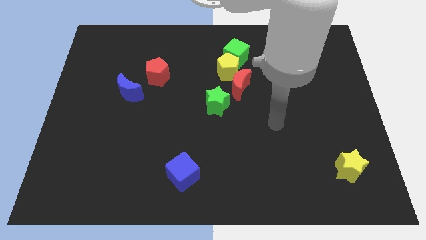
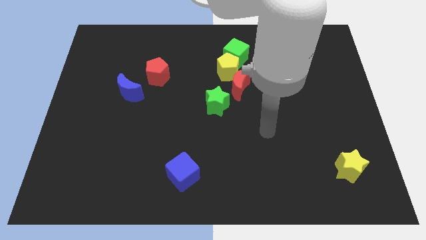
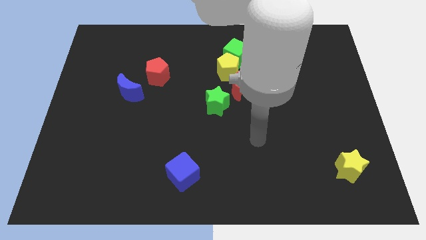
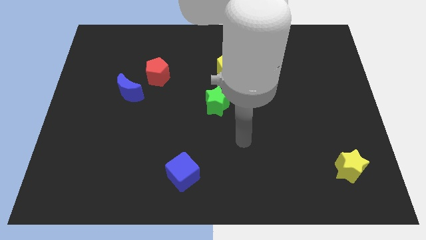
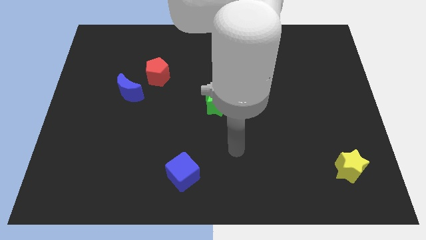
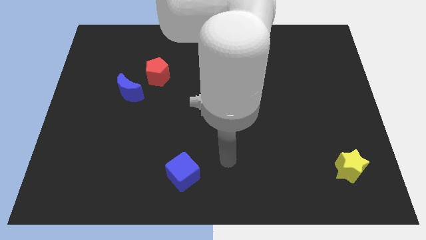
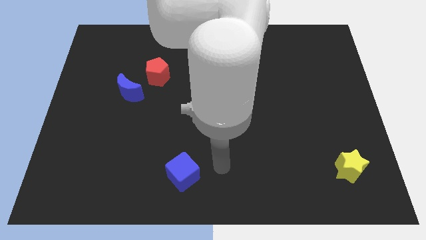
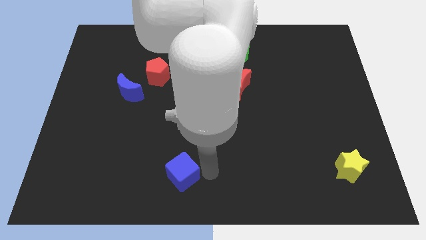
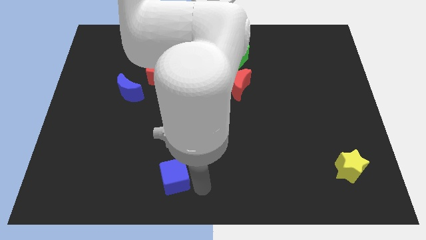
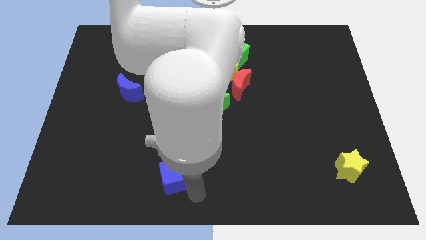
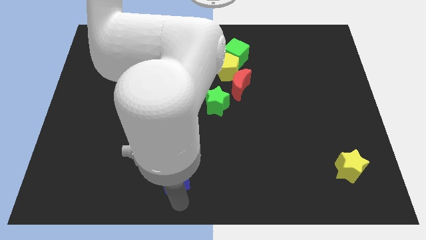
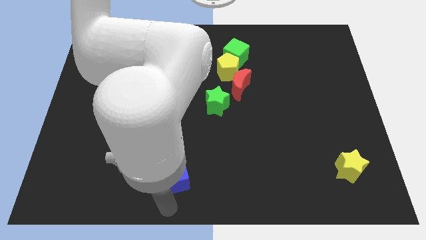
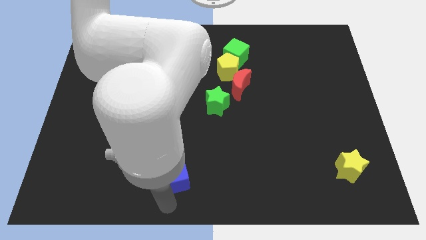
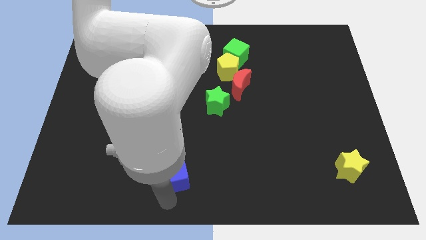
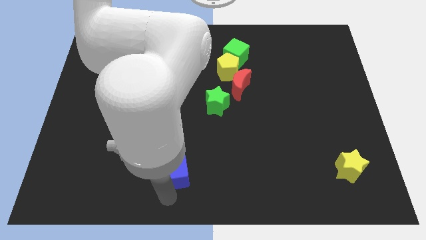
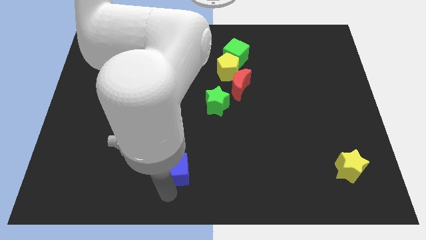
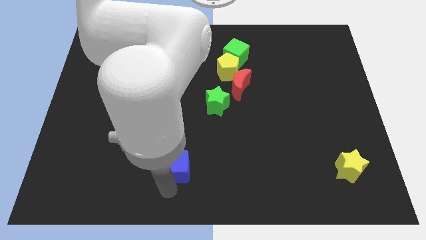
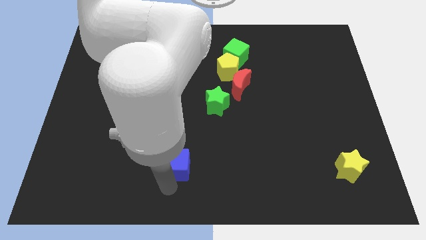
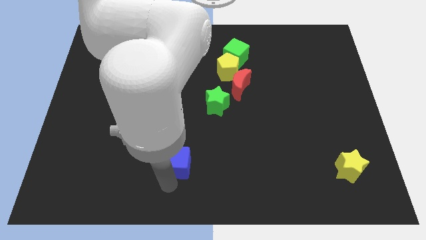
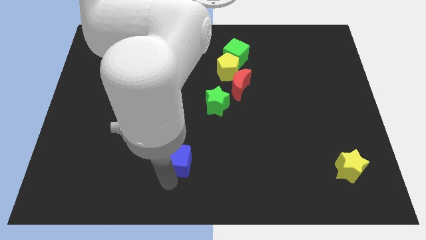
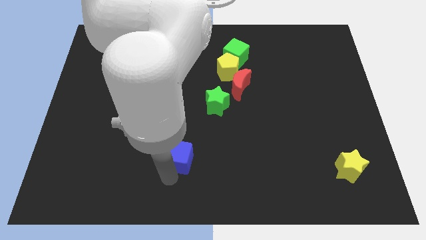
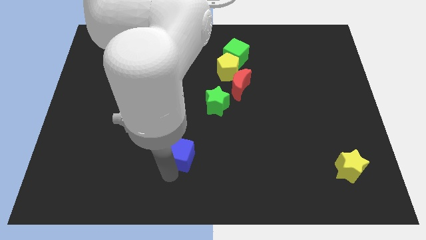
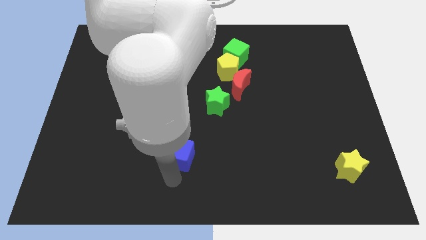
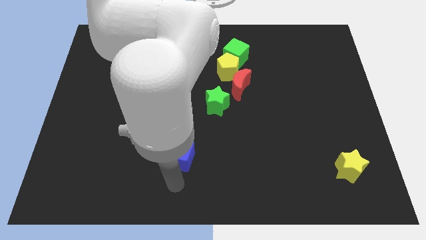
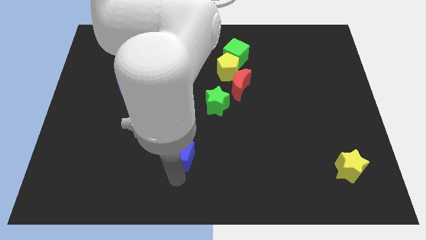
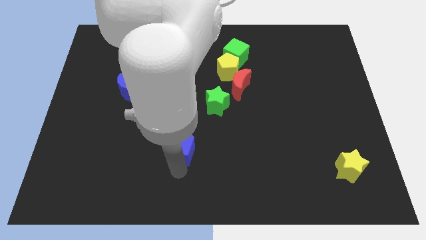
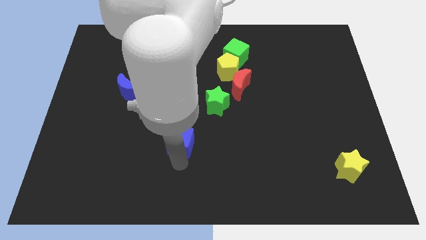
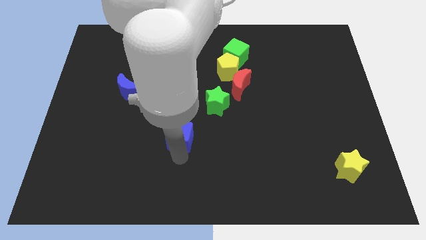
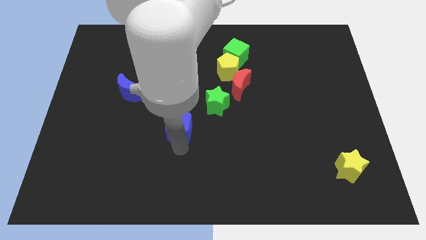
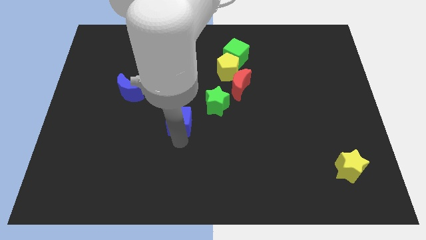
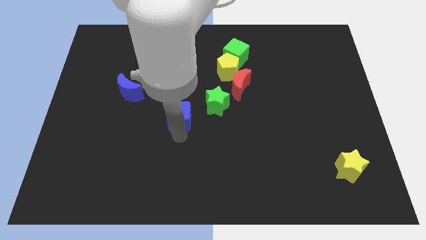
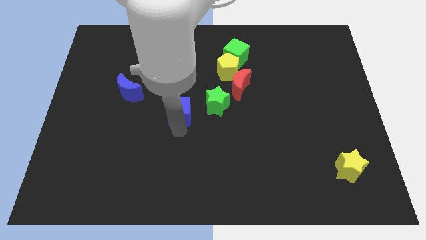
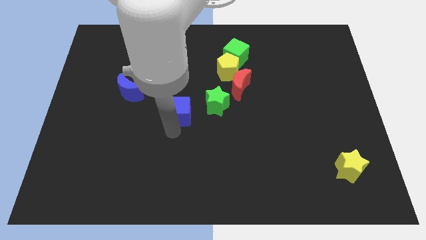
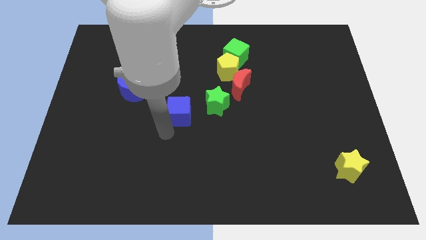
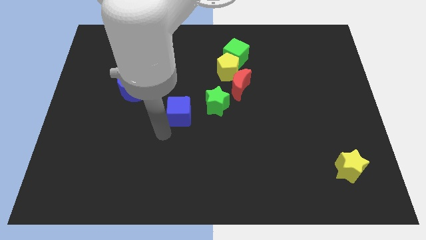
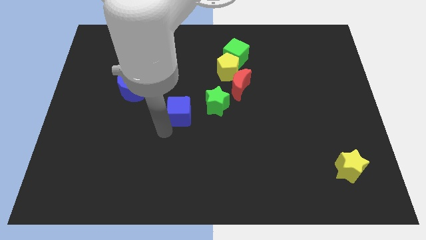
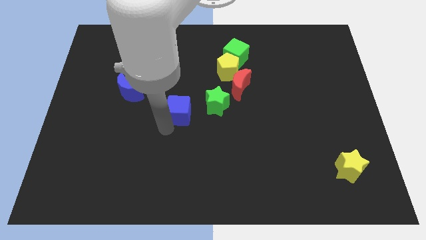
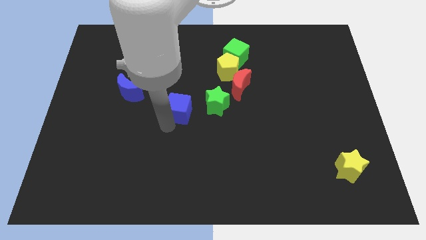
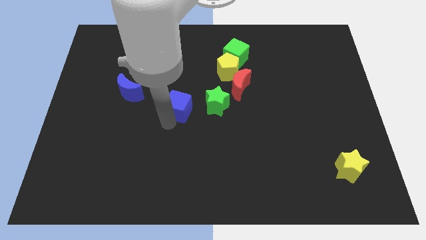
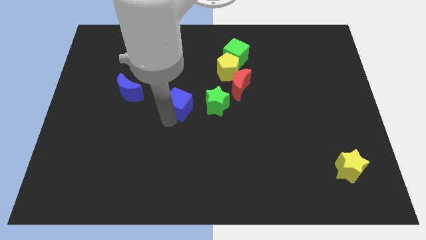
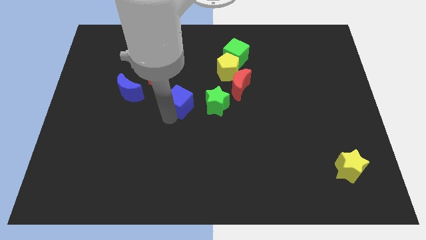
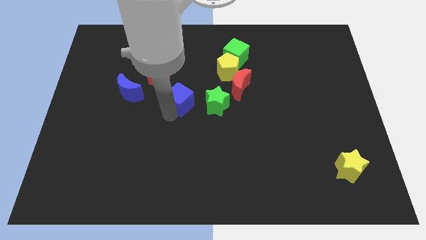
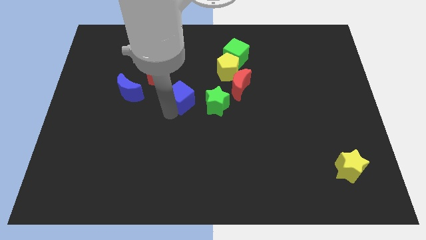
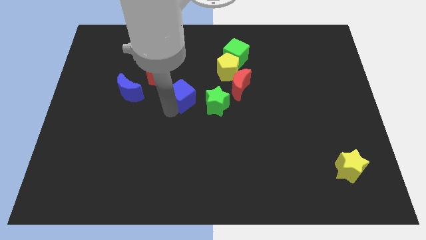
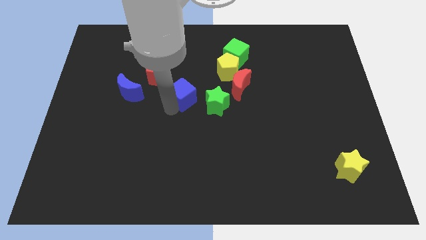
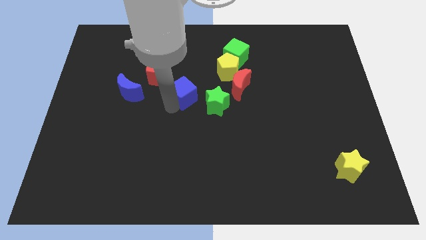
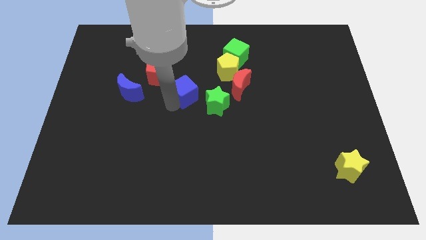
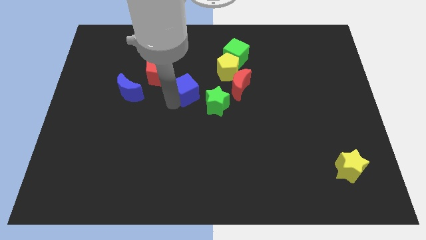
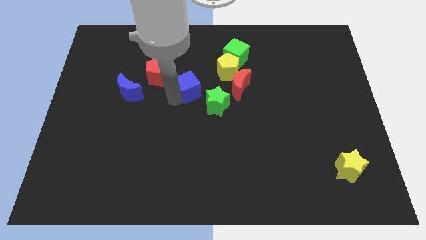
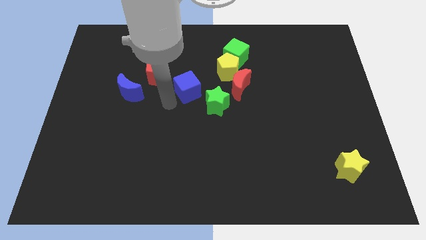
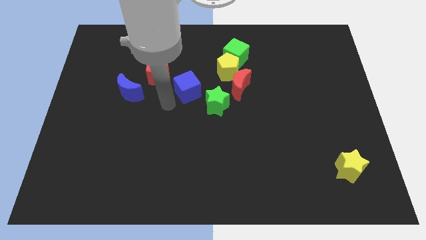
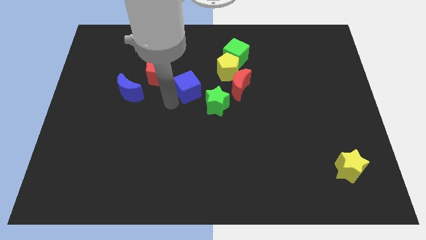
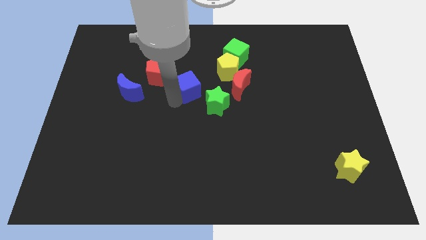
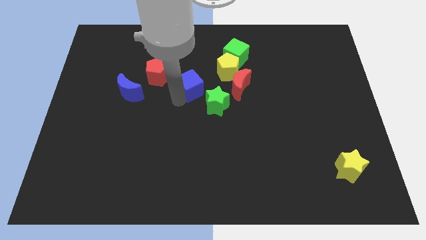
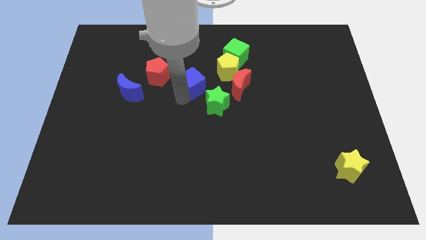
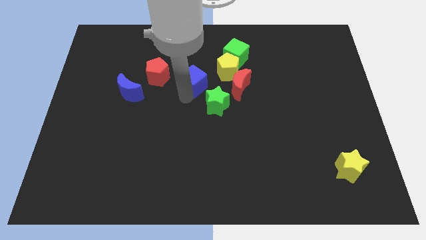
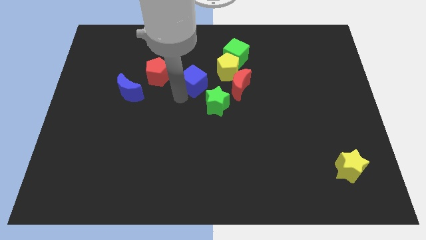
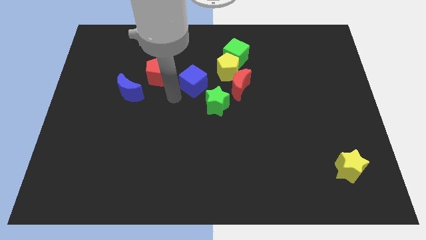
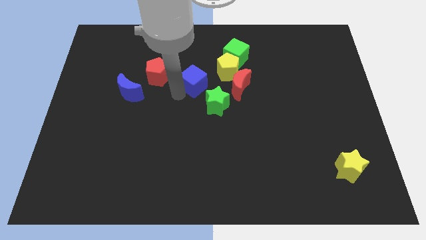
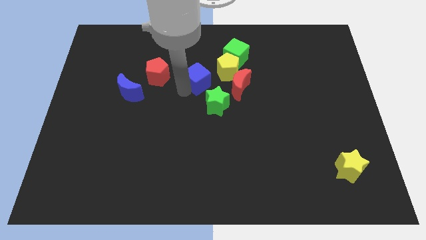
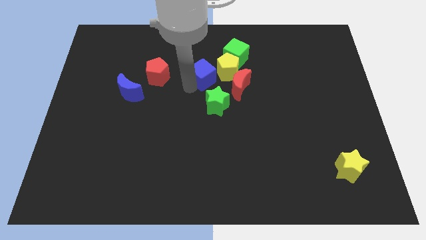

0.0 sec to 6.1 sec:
push the blue cube to the bottom left side of the green cube

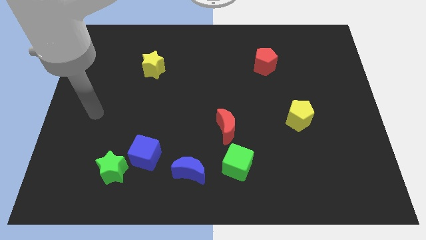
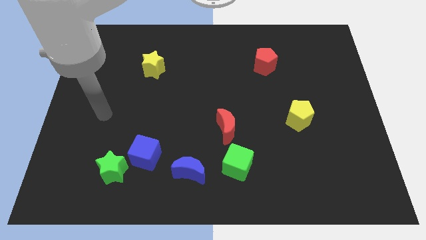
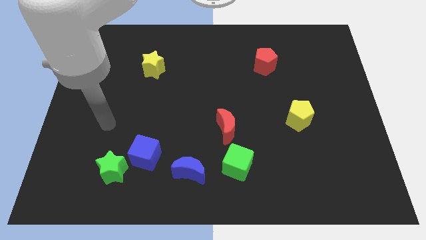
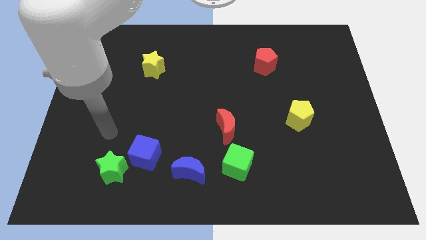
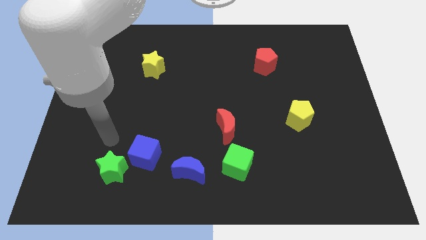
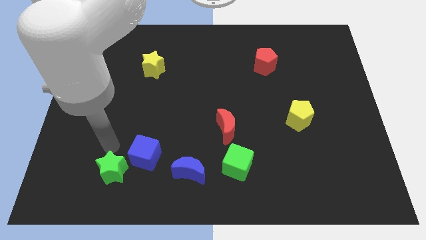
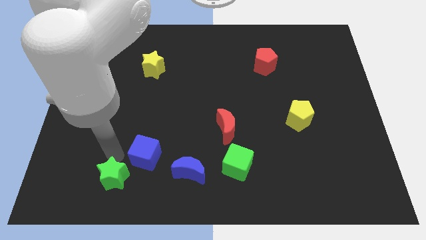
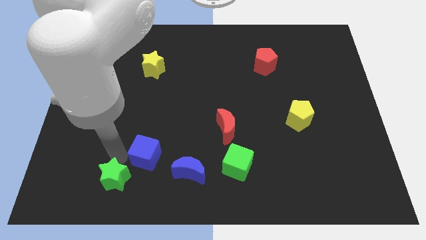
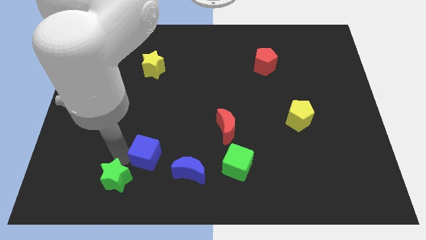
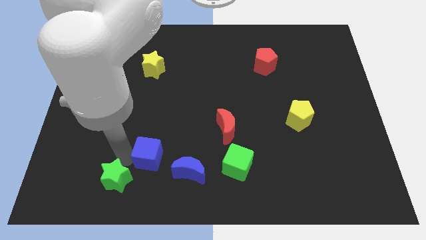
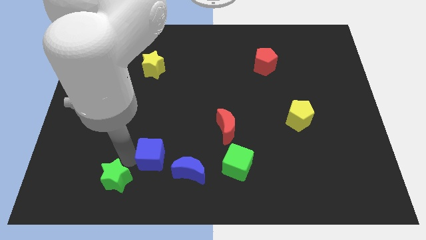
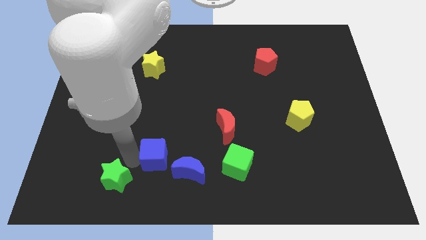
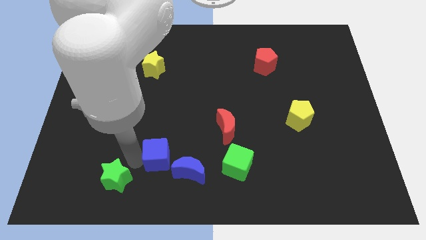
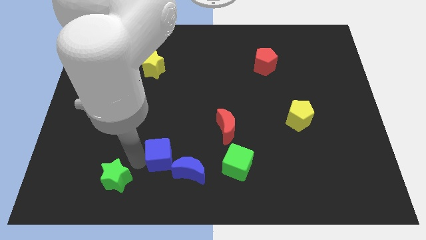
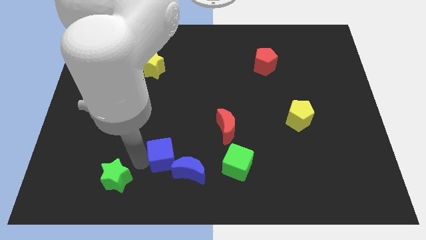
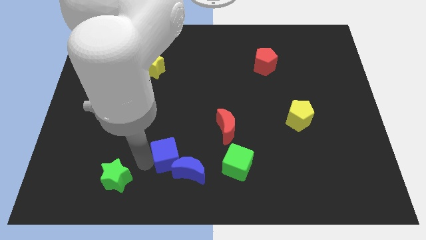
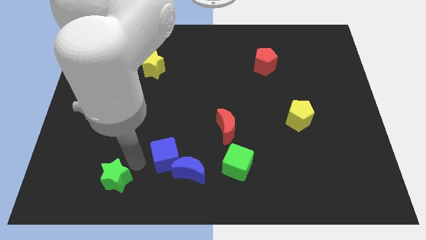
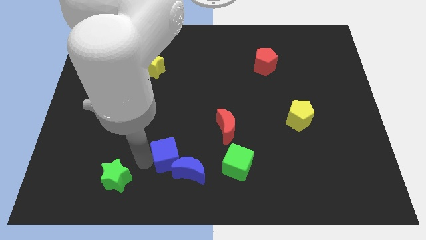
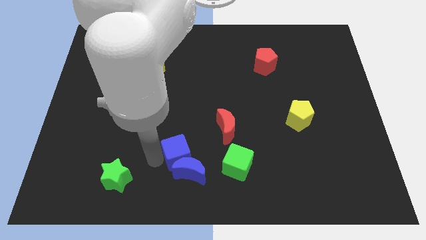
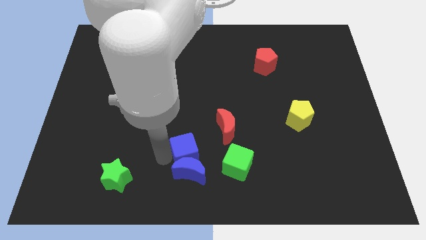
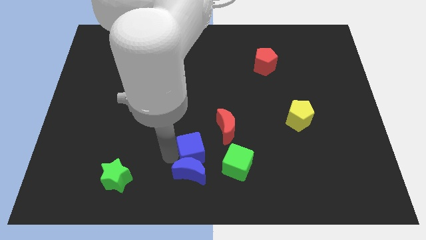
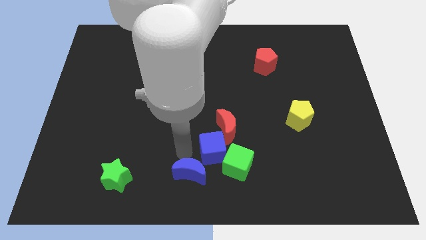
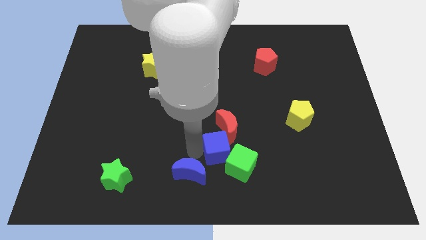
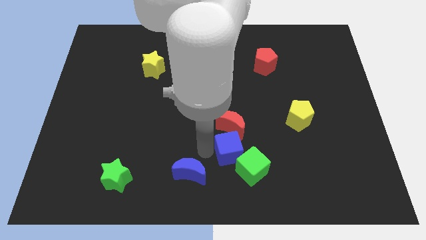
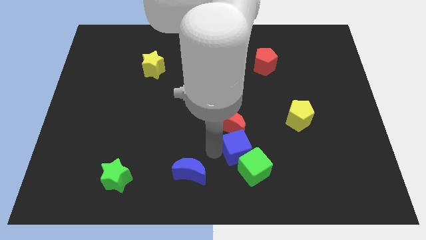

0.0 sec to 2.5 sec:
slide the blue cube to the bottom right of the red moon
